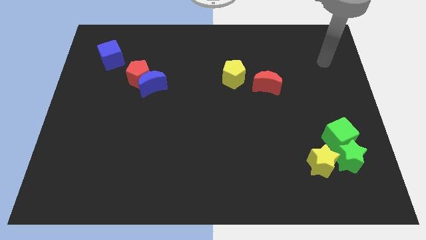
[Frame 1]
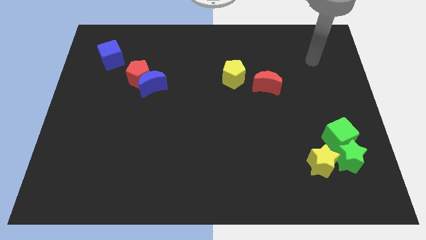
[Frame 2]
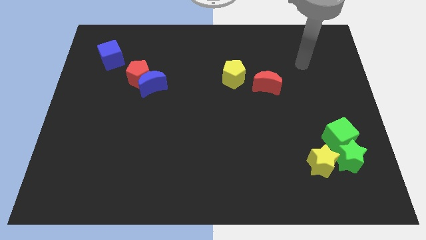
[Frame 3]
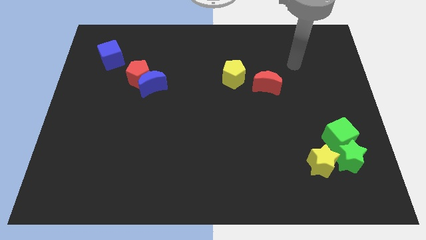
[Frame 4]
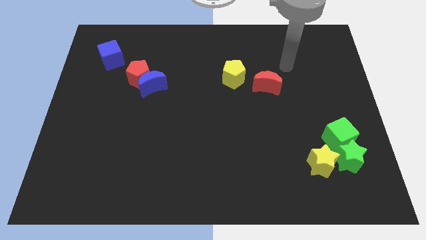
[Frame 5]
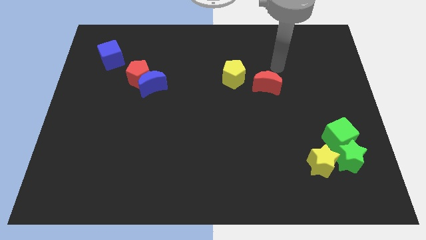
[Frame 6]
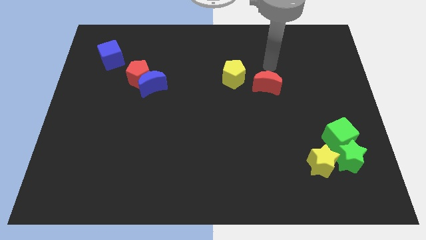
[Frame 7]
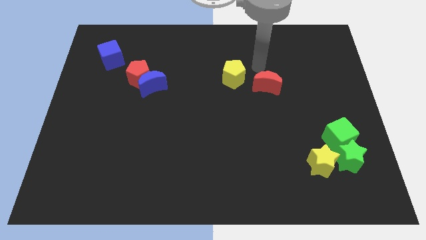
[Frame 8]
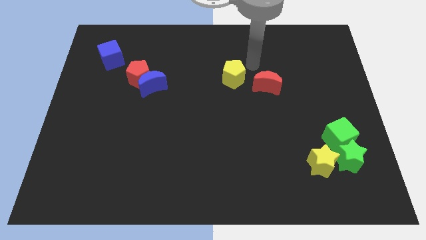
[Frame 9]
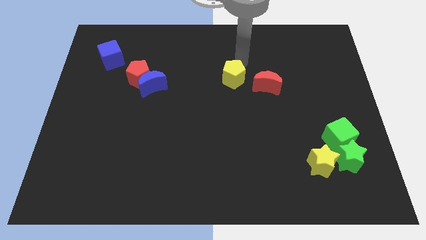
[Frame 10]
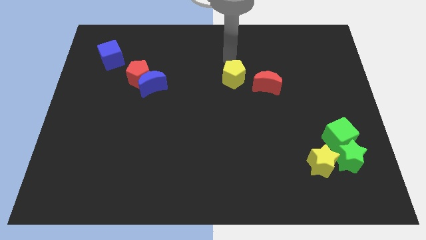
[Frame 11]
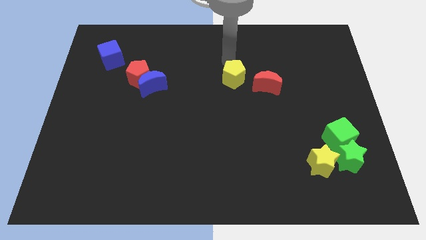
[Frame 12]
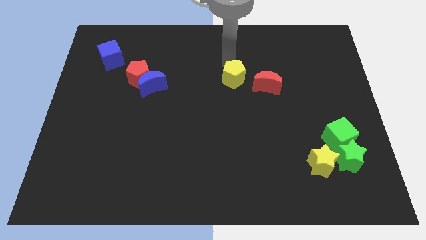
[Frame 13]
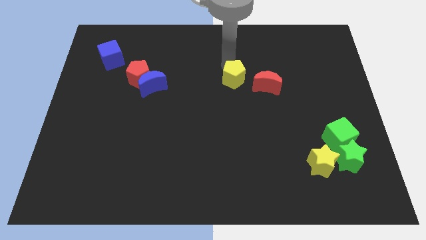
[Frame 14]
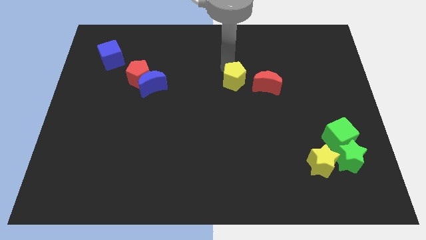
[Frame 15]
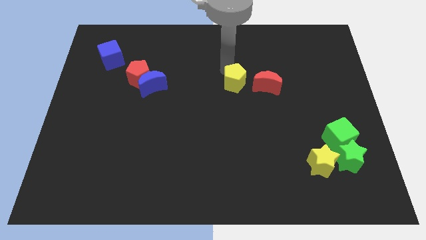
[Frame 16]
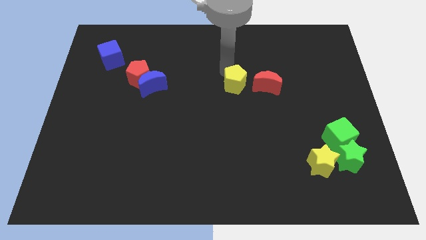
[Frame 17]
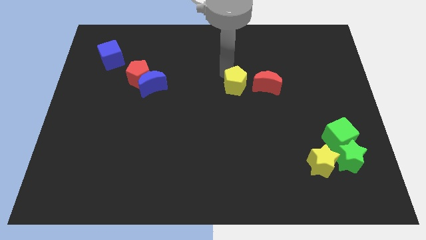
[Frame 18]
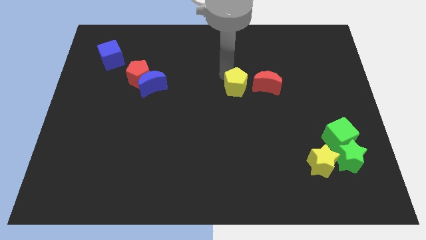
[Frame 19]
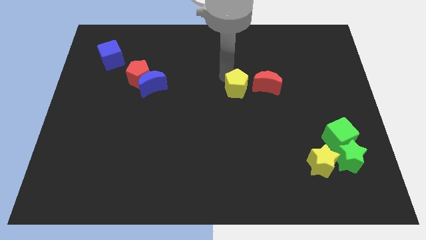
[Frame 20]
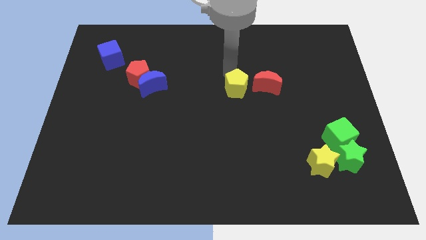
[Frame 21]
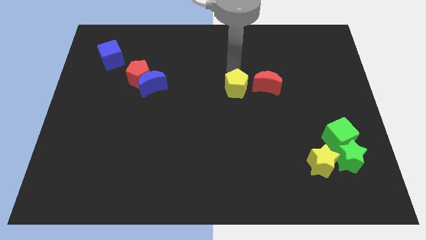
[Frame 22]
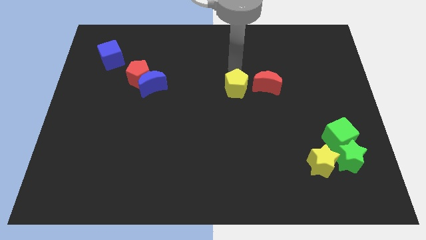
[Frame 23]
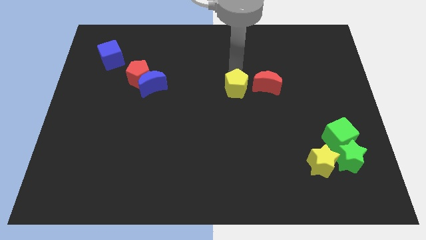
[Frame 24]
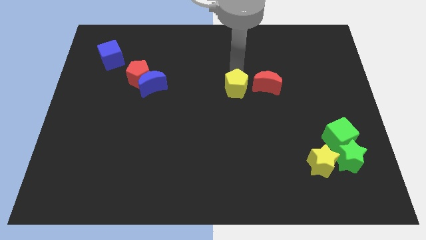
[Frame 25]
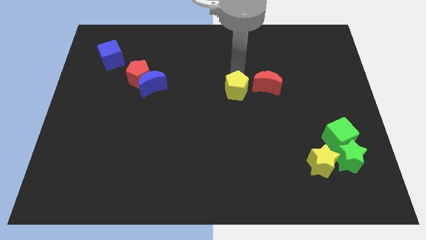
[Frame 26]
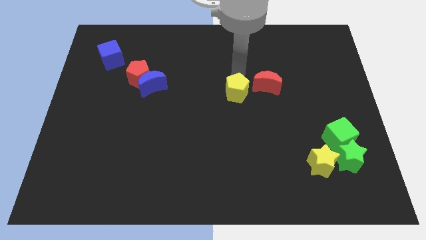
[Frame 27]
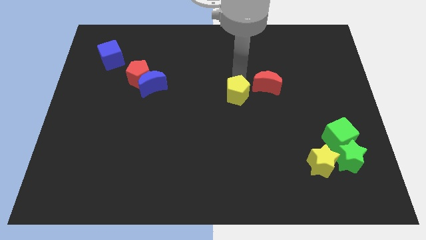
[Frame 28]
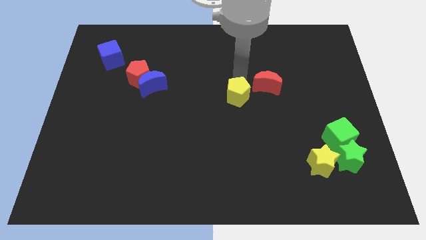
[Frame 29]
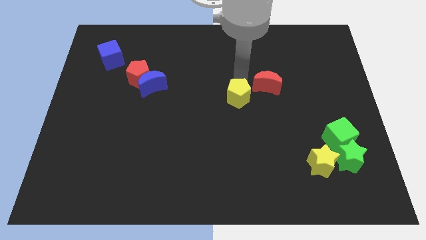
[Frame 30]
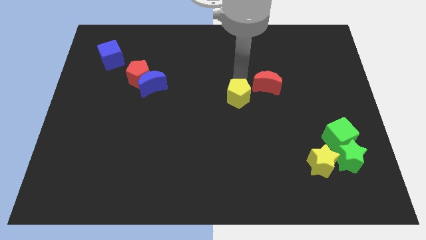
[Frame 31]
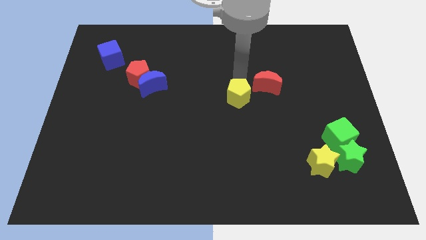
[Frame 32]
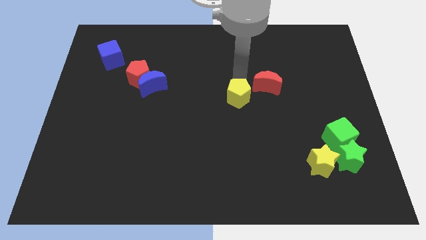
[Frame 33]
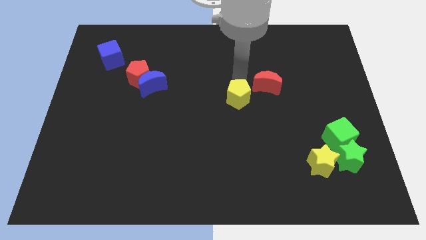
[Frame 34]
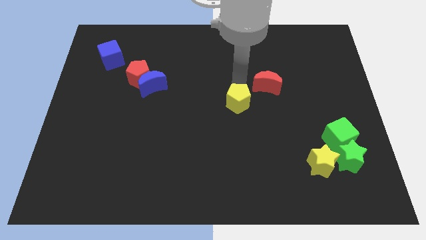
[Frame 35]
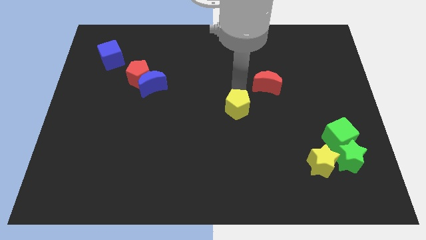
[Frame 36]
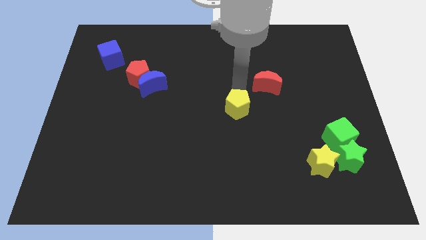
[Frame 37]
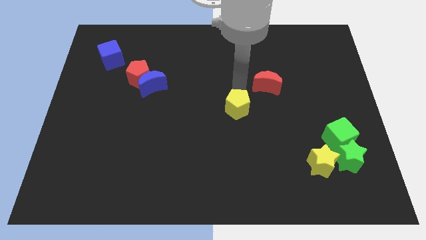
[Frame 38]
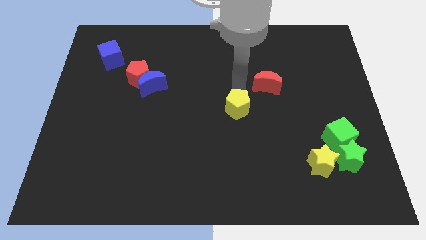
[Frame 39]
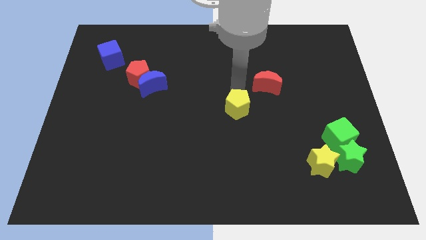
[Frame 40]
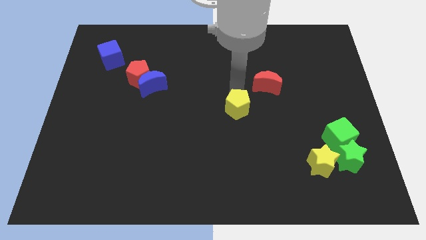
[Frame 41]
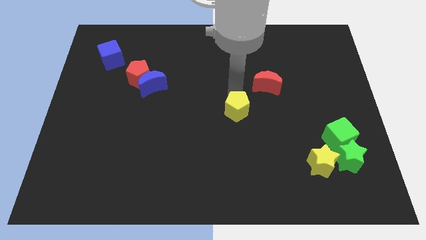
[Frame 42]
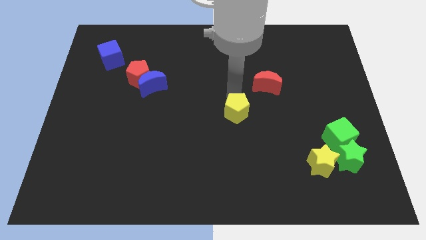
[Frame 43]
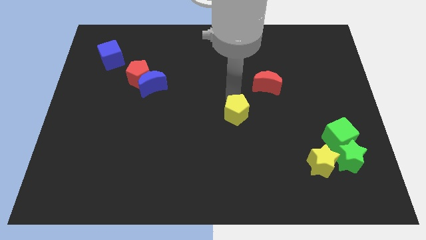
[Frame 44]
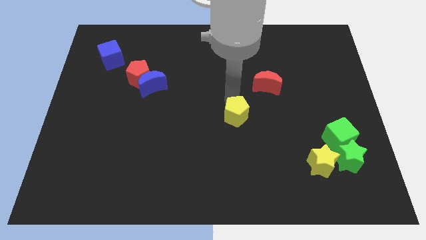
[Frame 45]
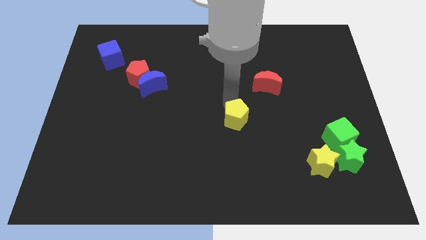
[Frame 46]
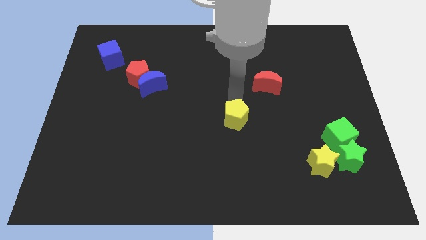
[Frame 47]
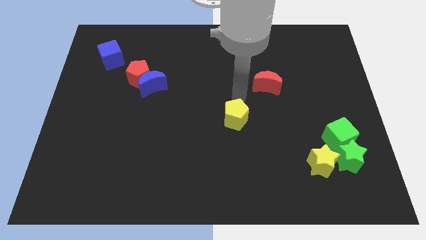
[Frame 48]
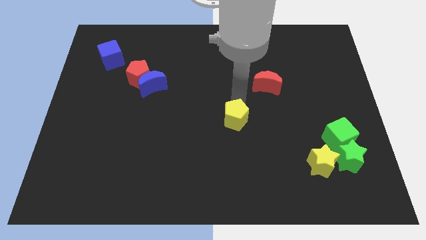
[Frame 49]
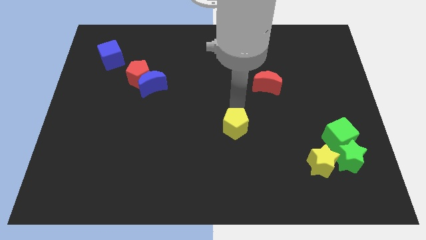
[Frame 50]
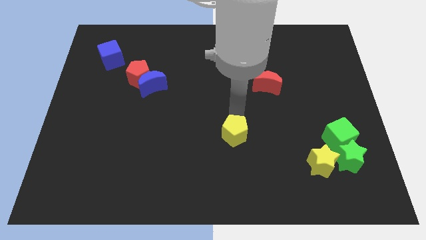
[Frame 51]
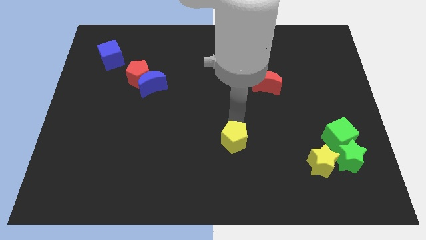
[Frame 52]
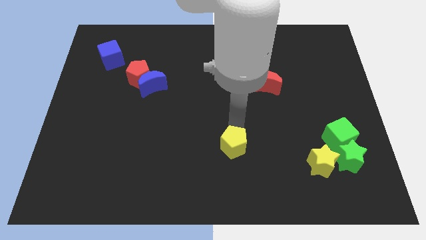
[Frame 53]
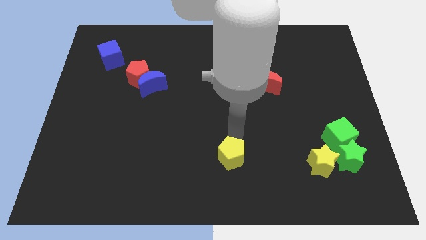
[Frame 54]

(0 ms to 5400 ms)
slide the yellow pentagon to the bottom side

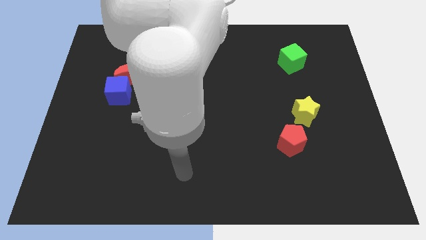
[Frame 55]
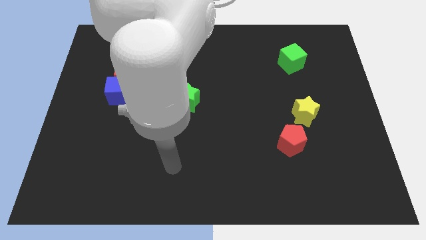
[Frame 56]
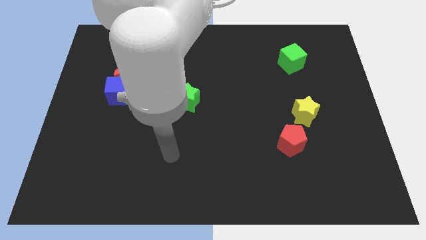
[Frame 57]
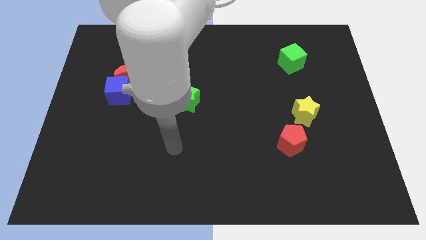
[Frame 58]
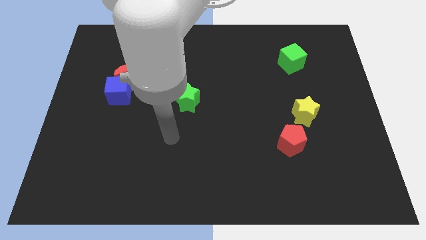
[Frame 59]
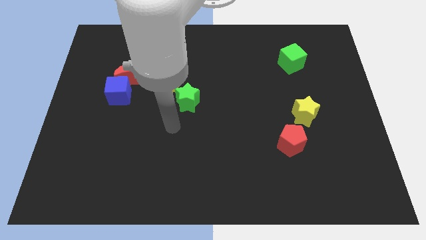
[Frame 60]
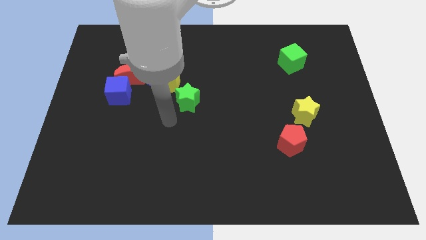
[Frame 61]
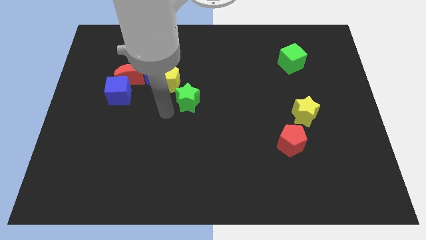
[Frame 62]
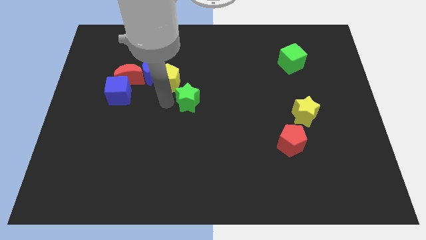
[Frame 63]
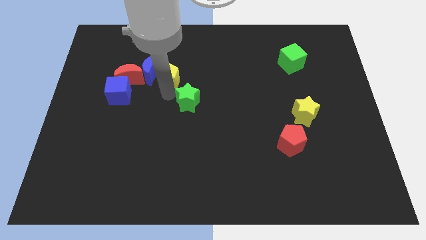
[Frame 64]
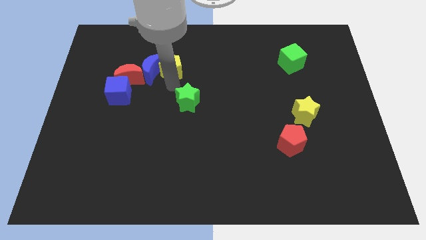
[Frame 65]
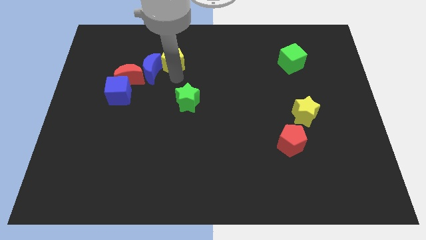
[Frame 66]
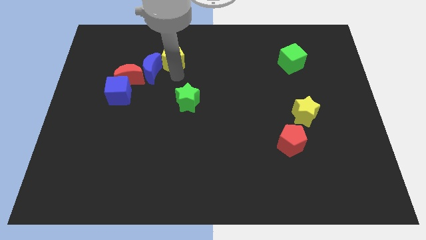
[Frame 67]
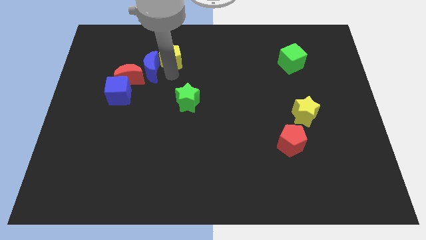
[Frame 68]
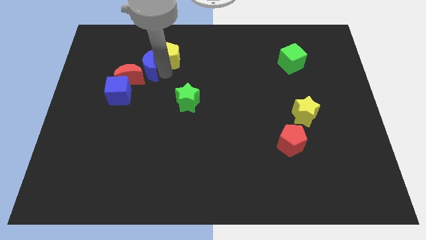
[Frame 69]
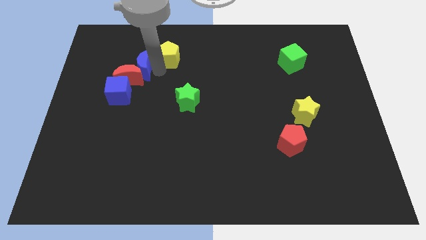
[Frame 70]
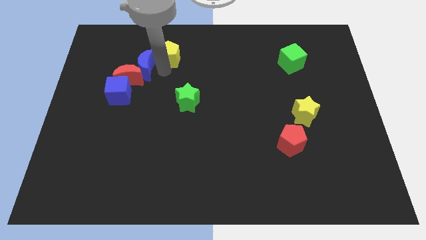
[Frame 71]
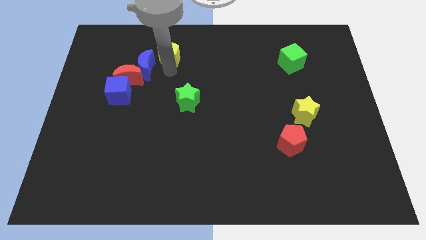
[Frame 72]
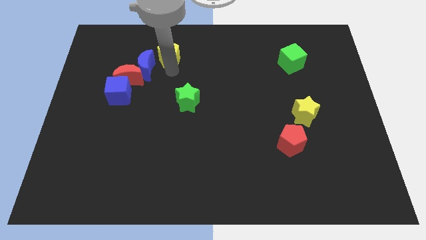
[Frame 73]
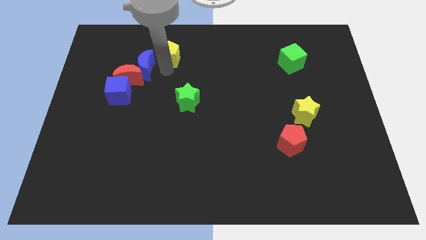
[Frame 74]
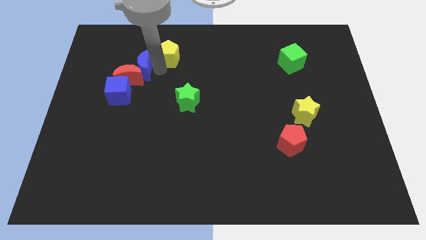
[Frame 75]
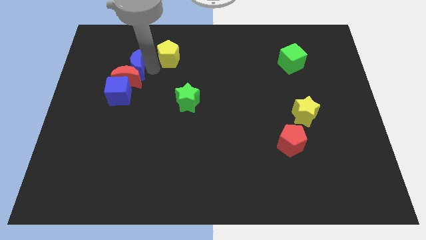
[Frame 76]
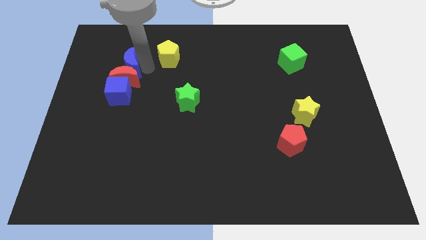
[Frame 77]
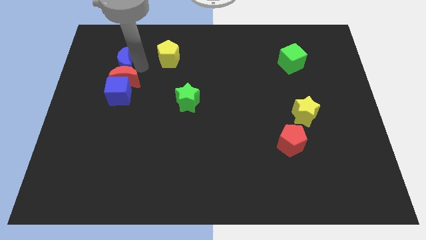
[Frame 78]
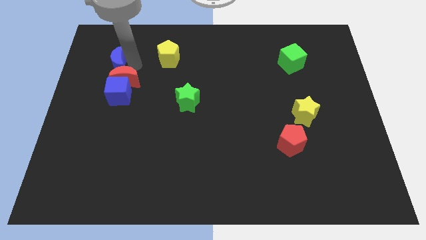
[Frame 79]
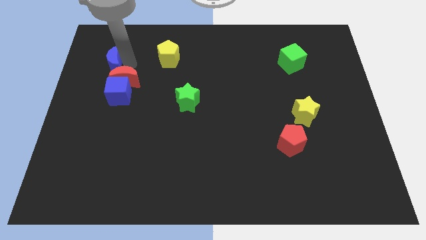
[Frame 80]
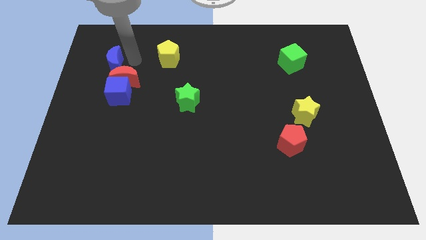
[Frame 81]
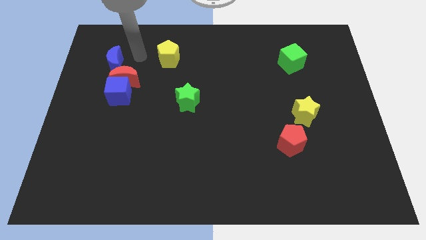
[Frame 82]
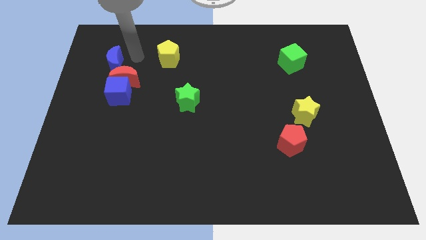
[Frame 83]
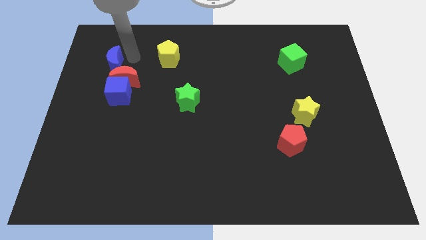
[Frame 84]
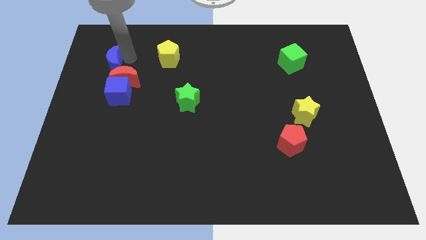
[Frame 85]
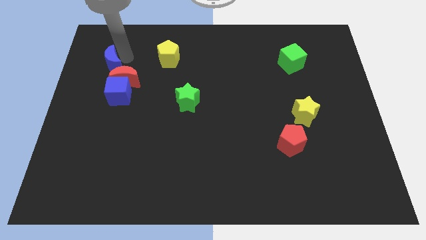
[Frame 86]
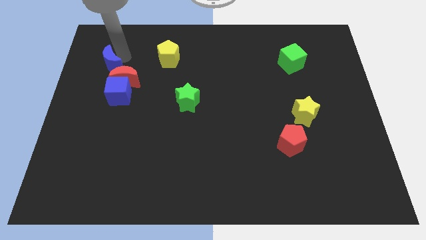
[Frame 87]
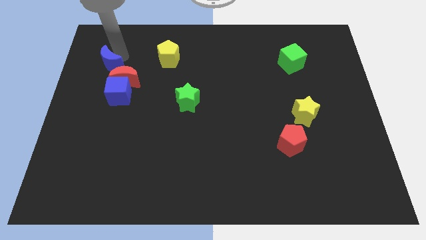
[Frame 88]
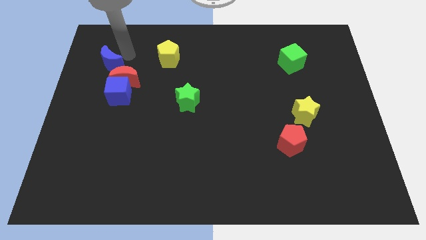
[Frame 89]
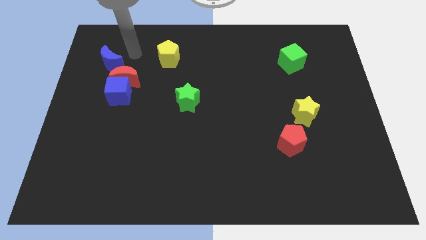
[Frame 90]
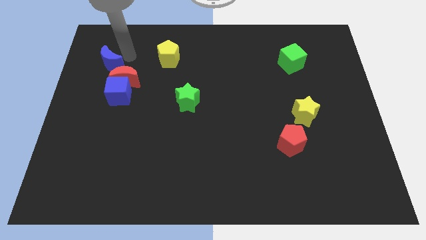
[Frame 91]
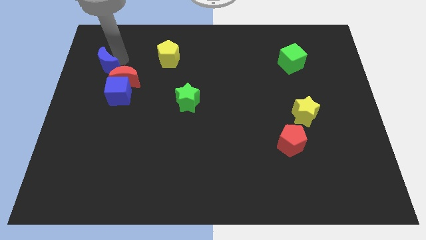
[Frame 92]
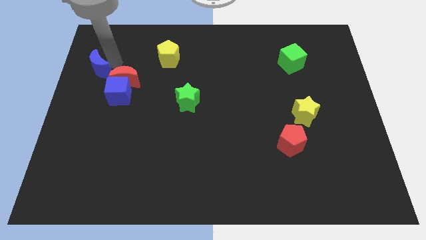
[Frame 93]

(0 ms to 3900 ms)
move the blue moon to the left side
